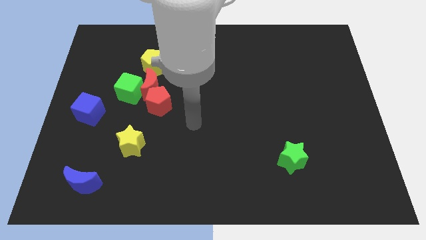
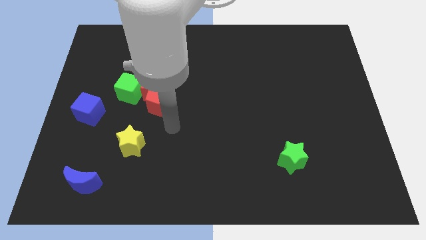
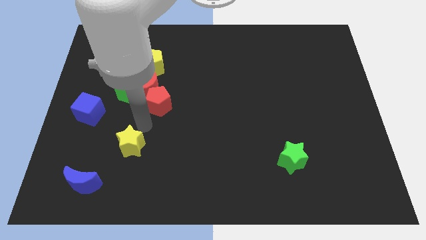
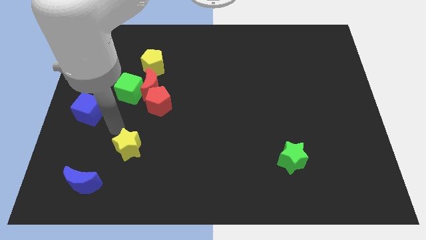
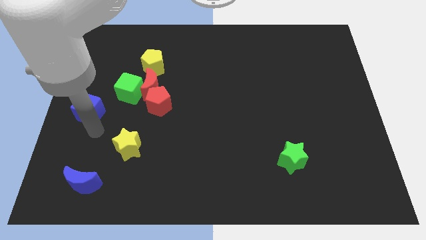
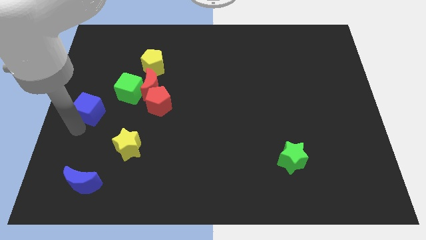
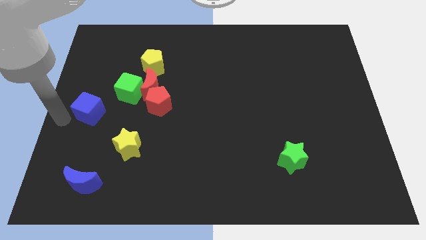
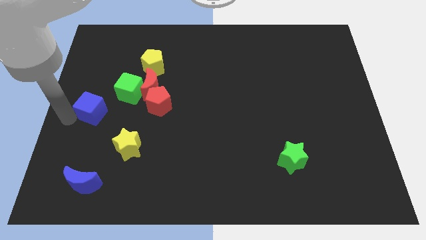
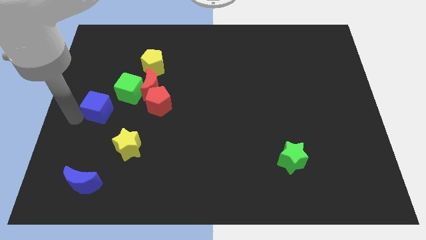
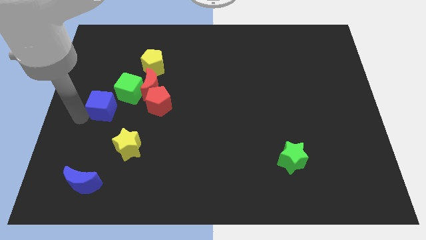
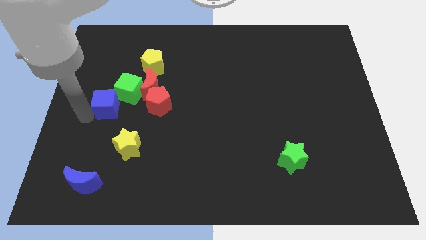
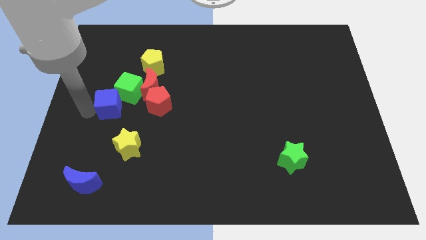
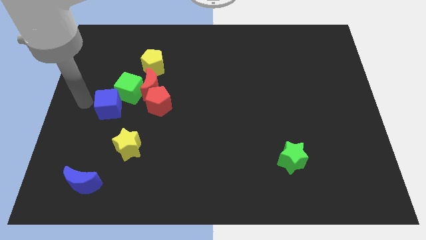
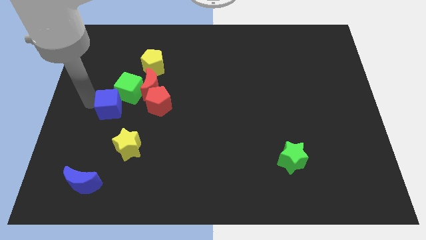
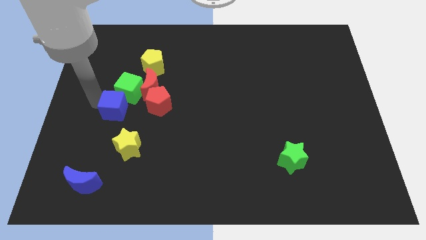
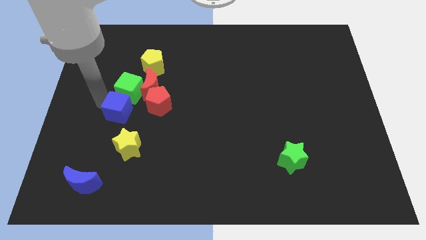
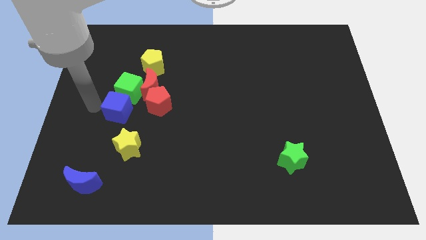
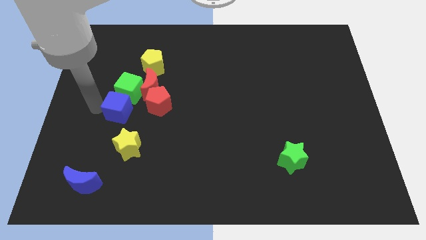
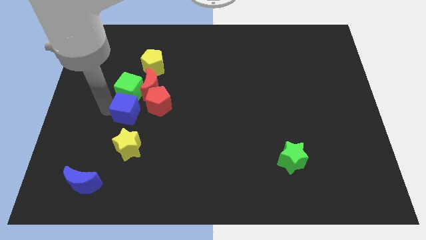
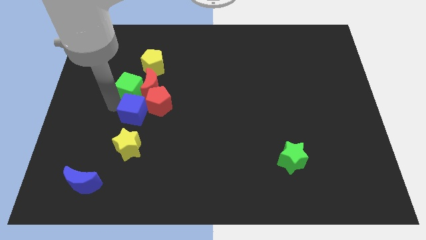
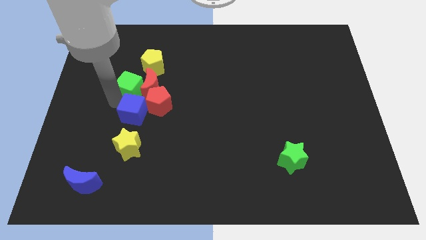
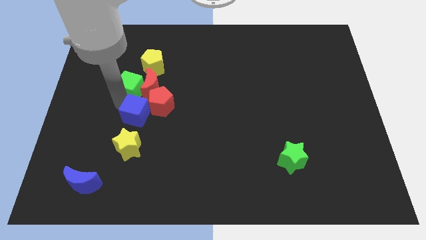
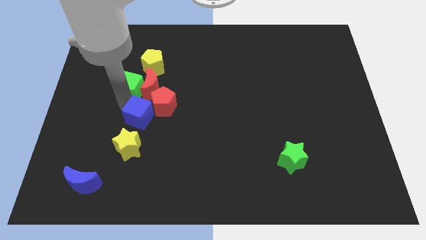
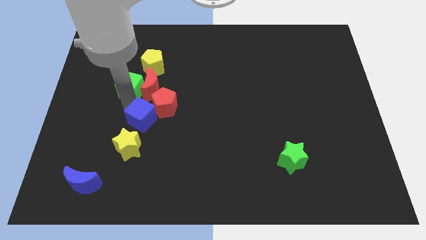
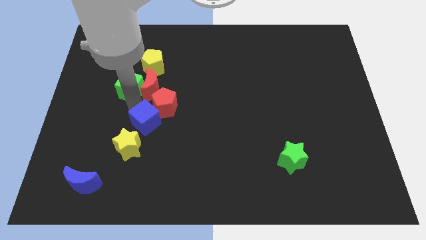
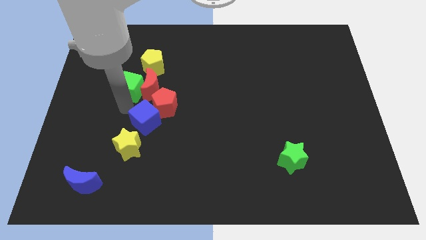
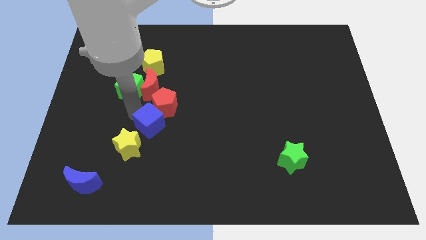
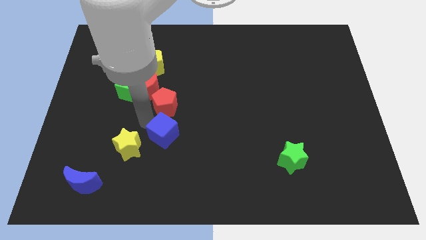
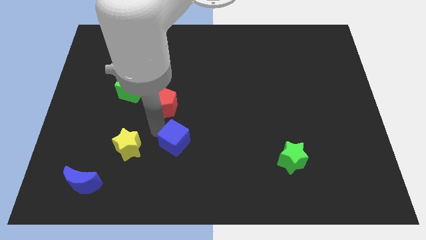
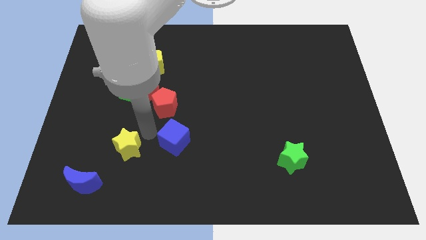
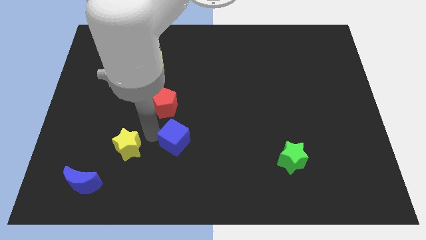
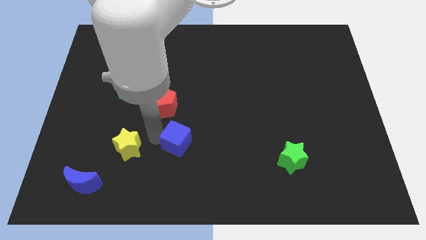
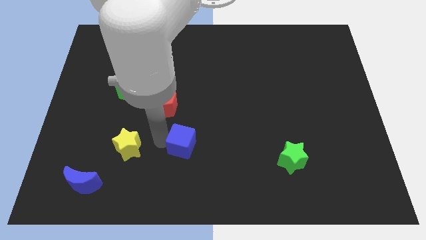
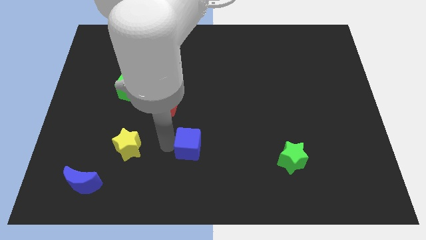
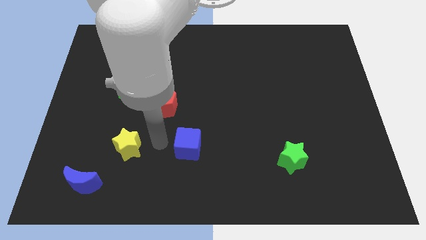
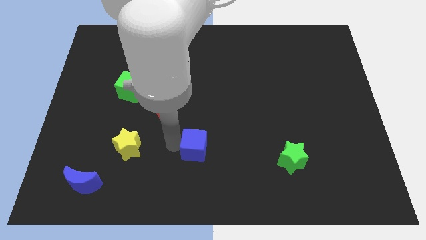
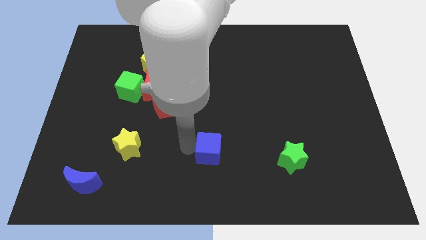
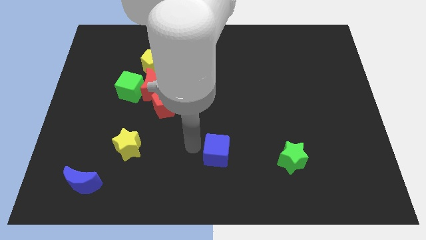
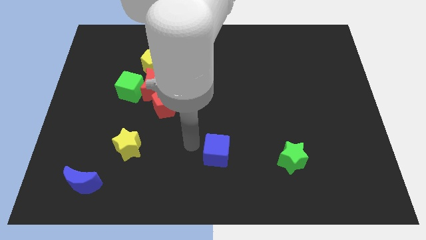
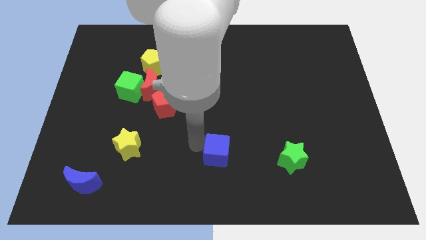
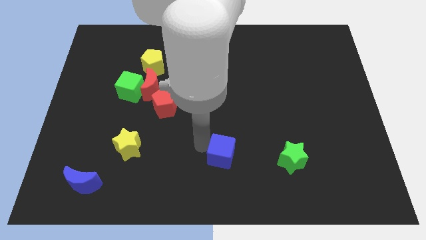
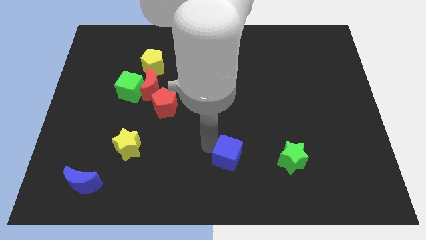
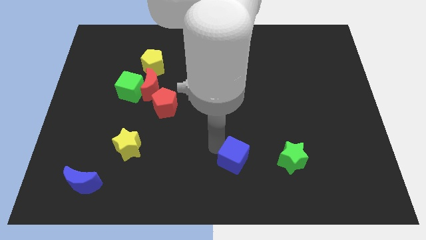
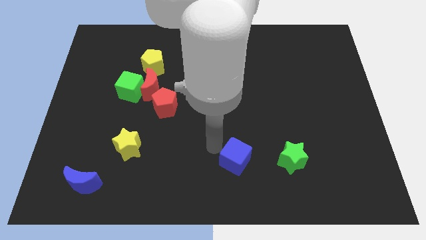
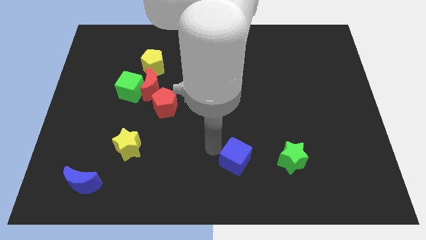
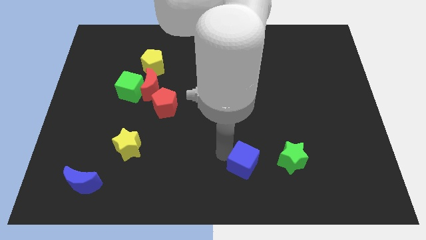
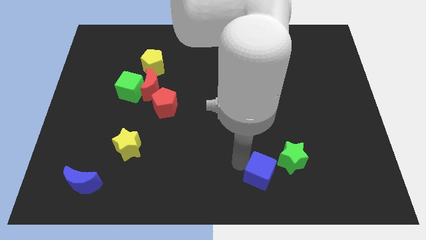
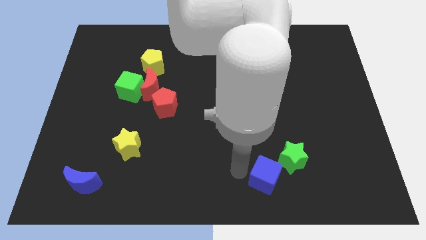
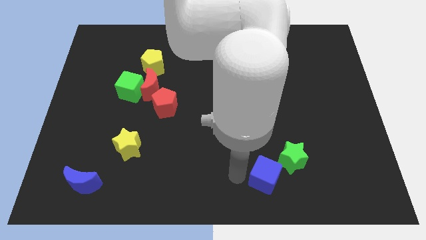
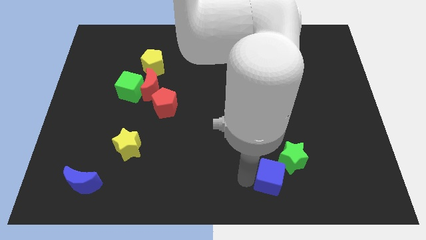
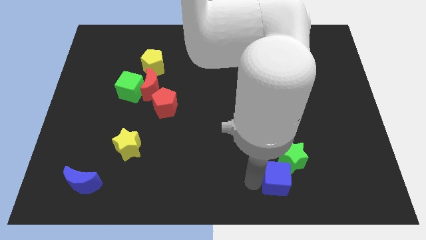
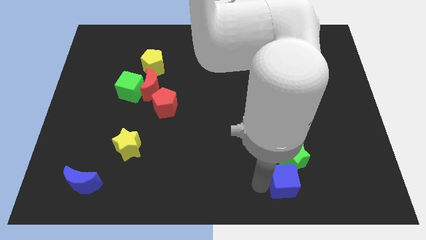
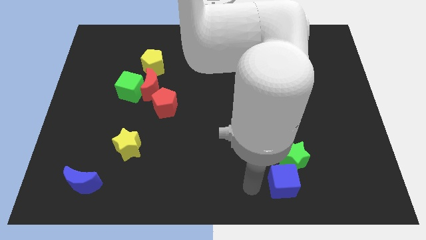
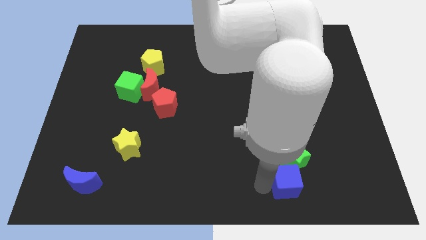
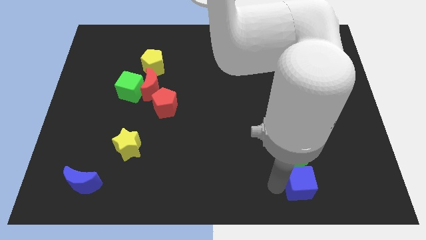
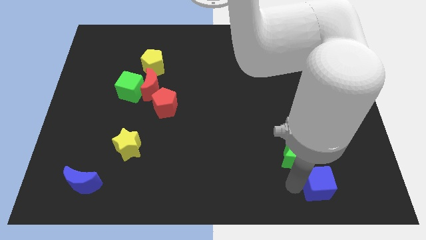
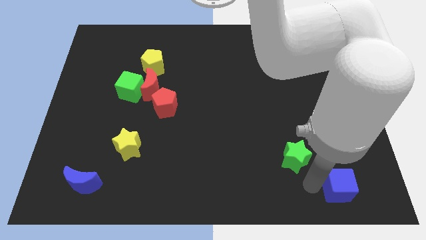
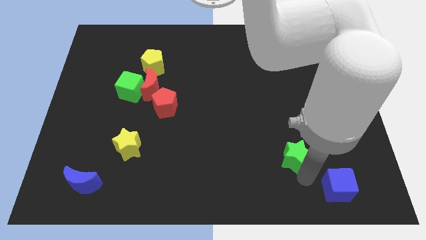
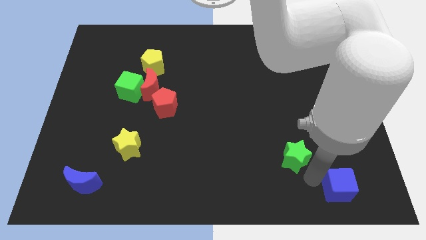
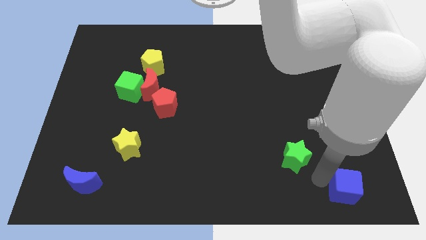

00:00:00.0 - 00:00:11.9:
slide the blue cube to the lower right corner
